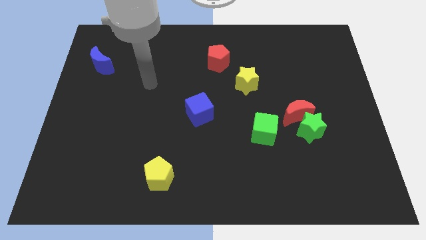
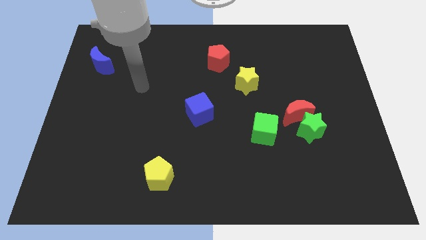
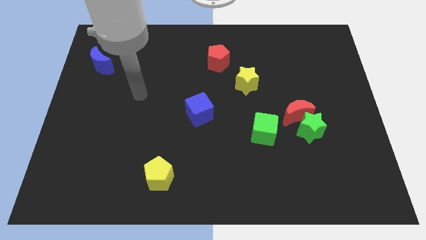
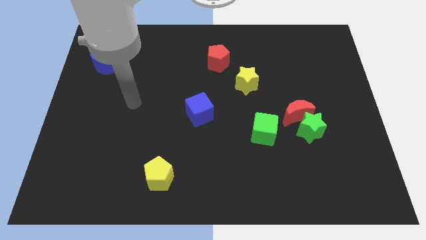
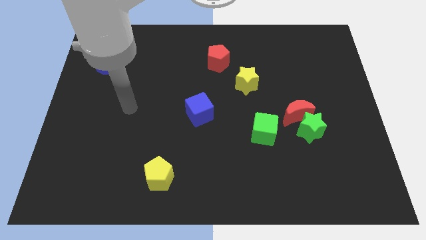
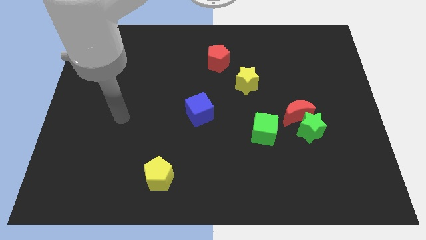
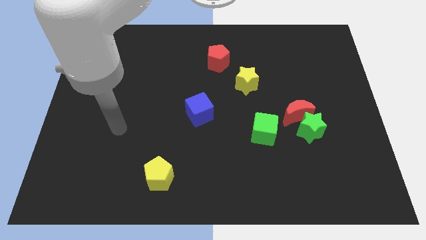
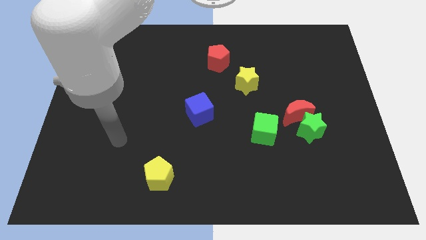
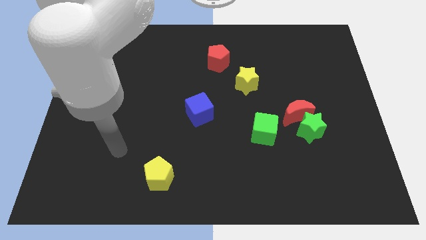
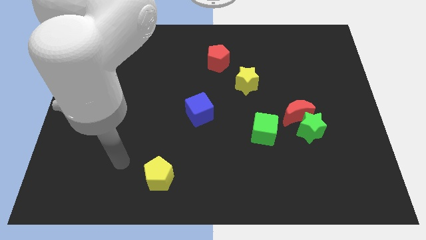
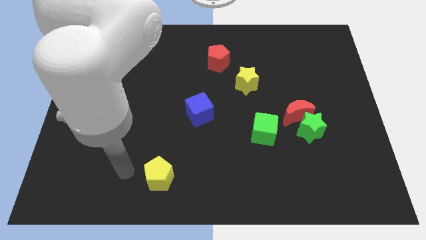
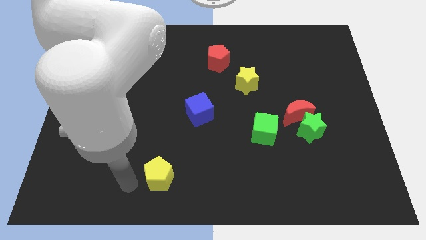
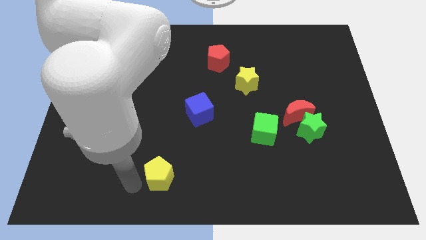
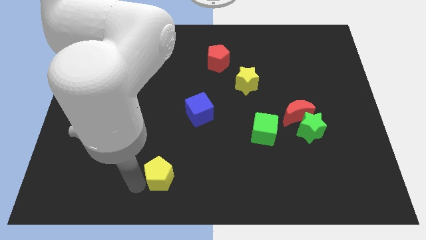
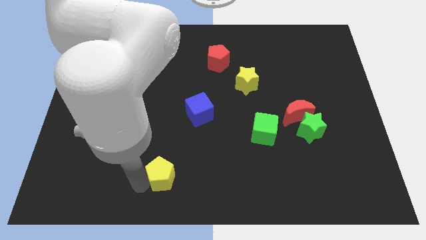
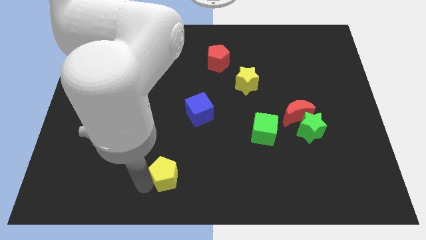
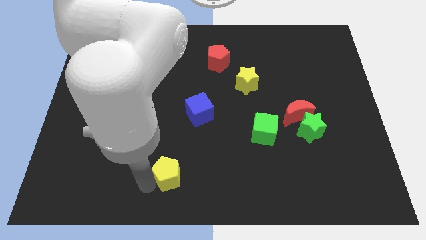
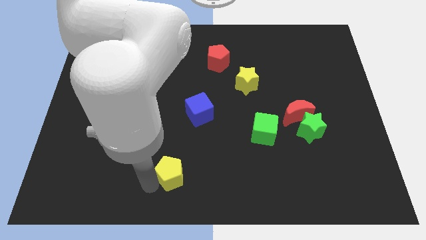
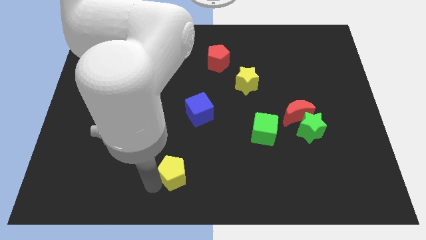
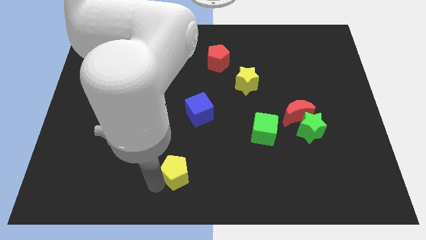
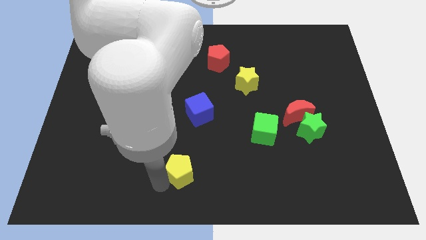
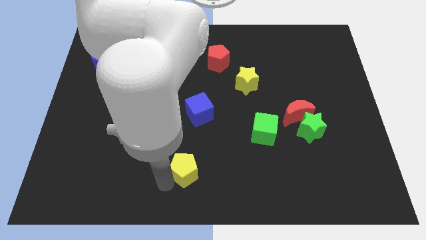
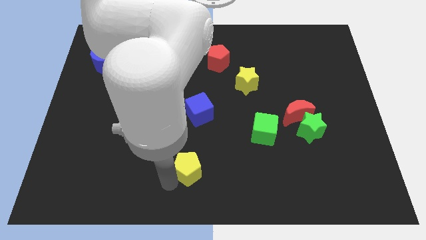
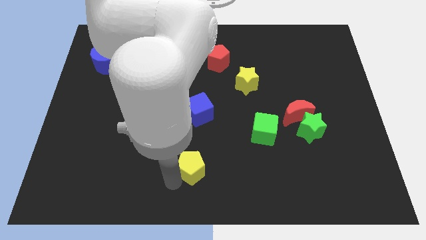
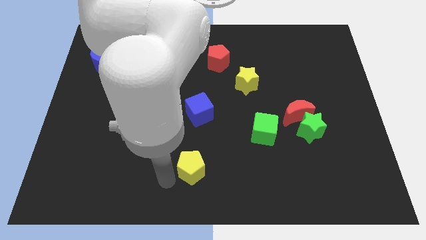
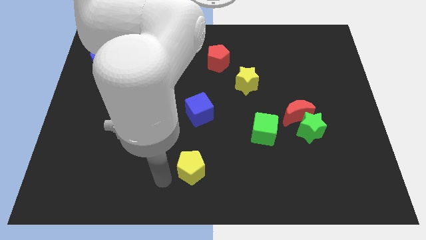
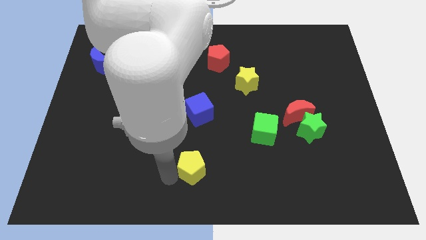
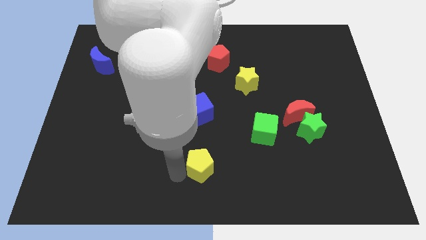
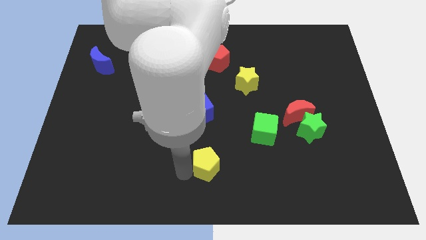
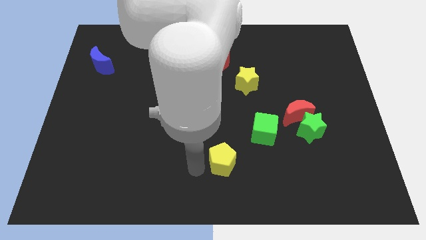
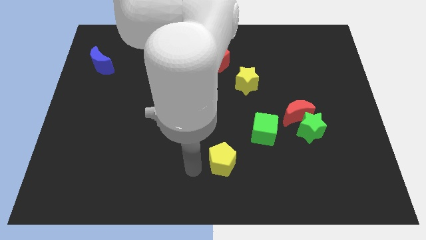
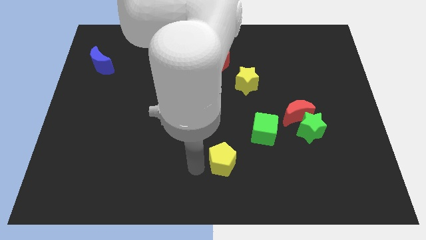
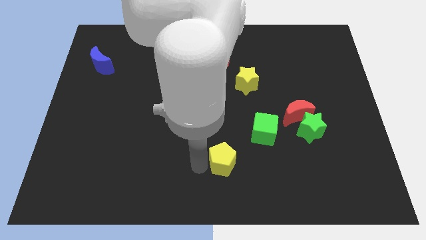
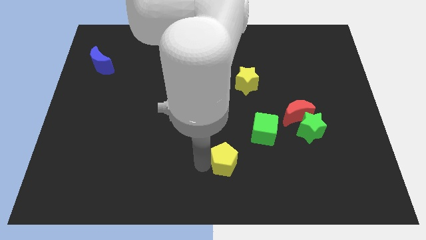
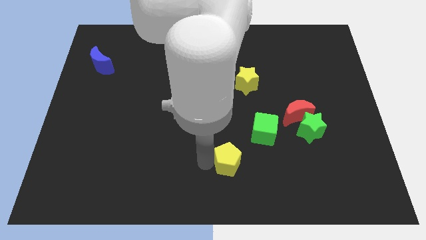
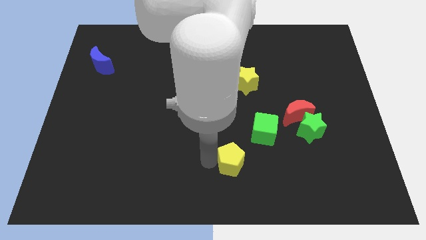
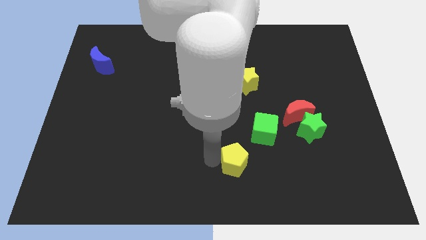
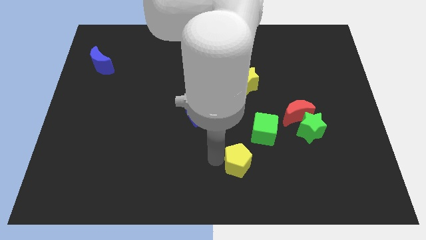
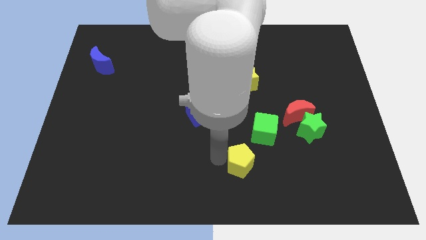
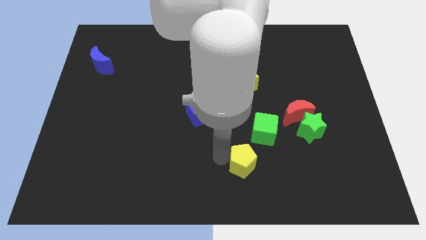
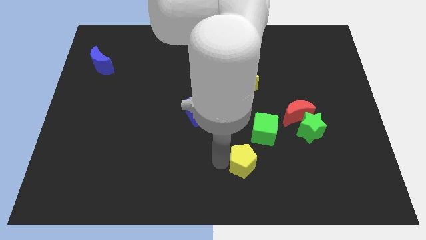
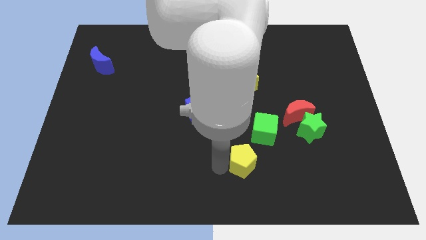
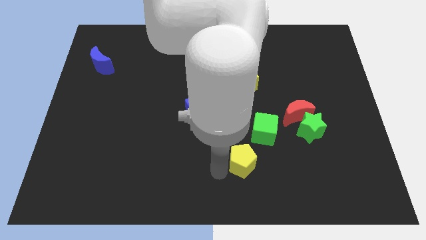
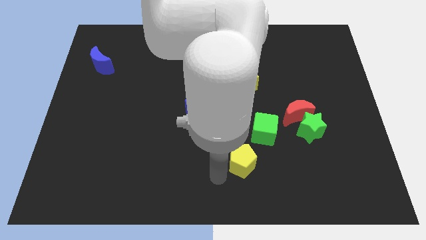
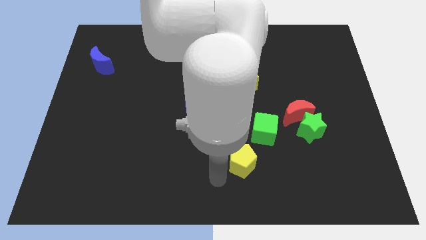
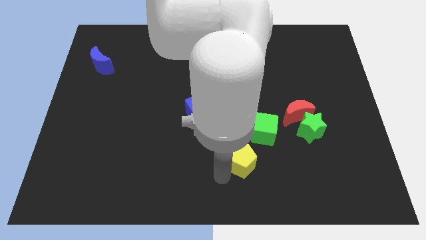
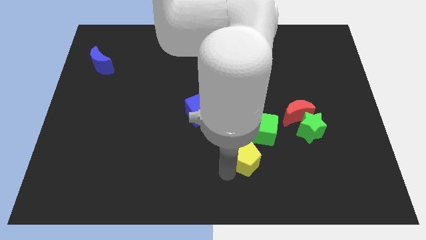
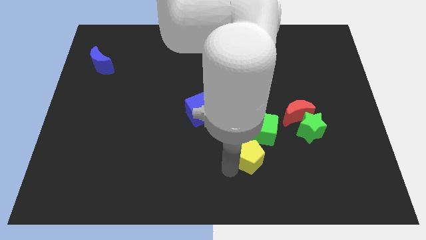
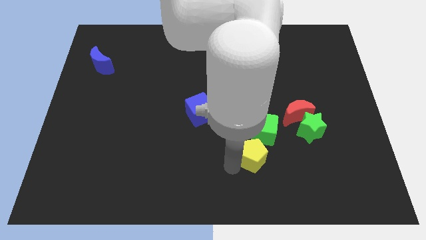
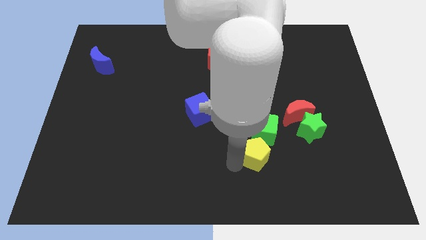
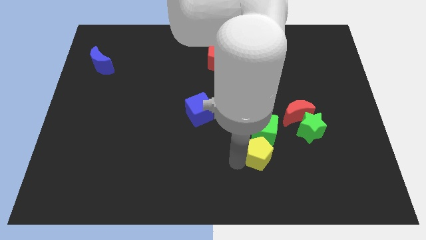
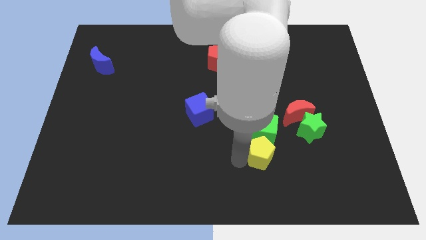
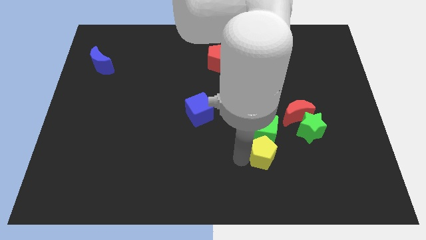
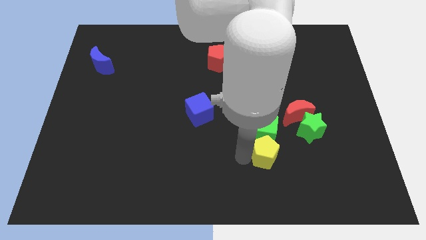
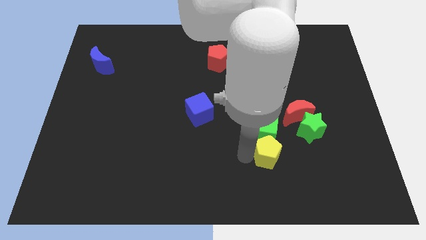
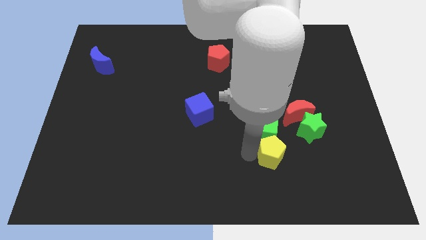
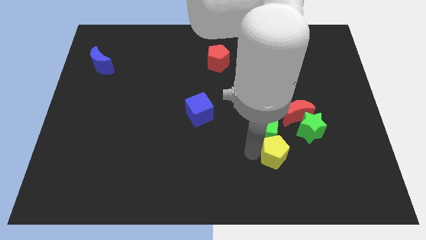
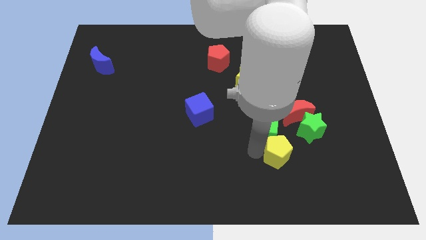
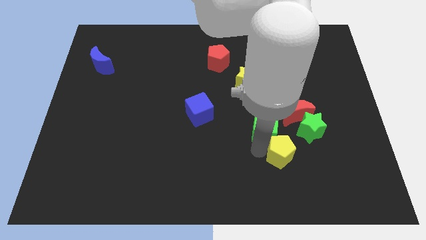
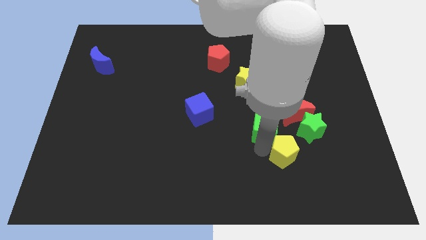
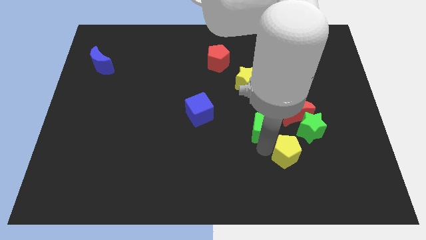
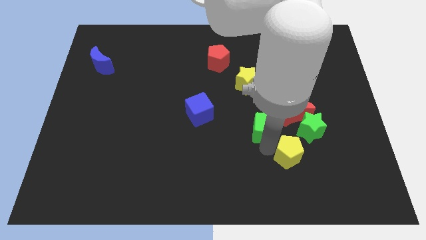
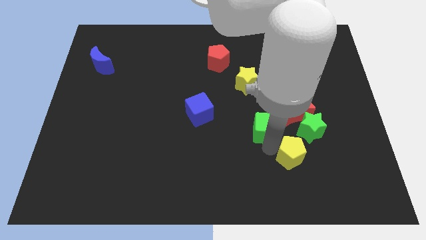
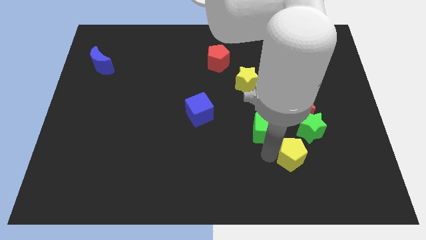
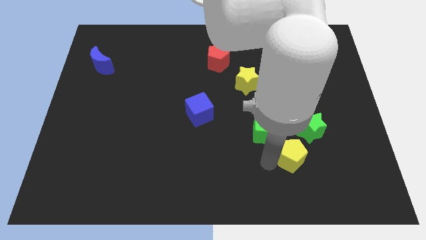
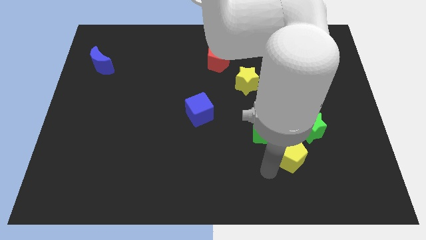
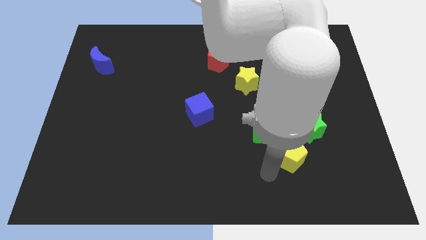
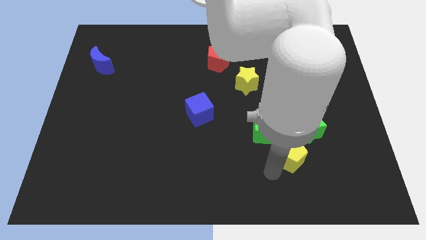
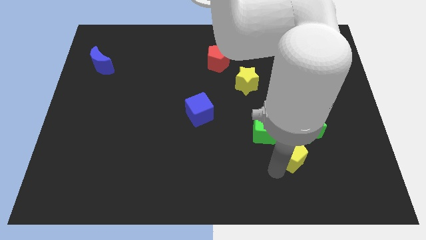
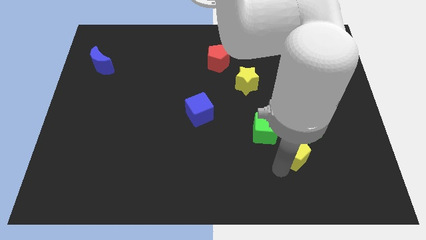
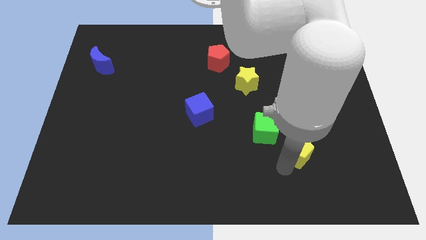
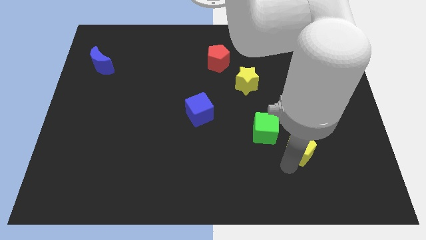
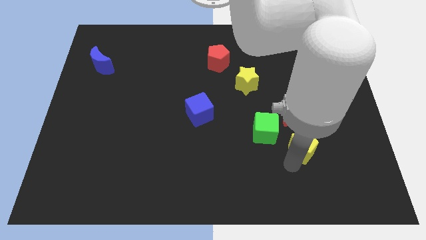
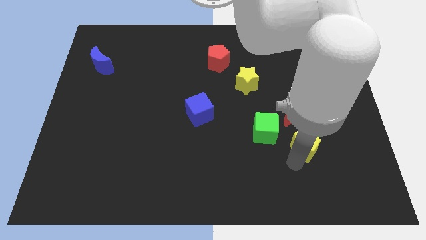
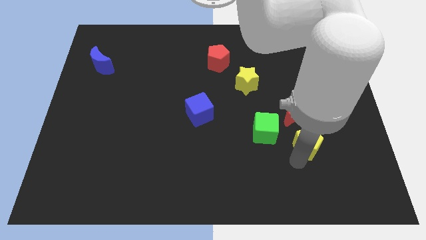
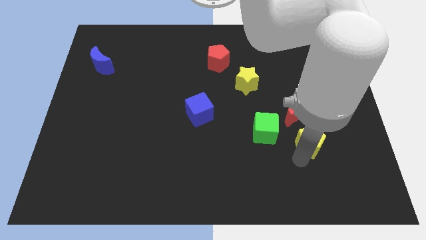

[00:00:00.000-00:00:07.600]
push the yellow pentagon to the bottom right side of the red moon
